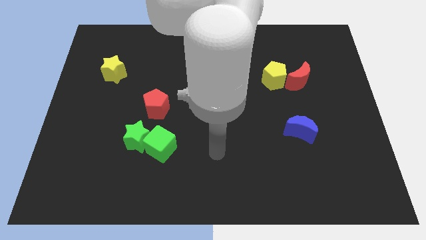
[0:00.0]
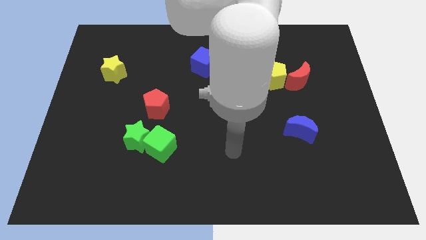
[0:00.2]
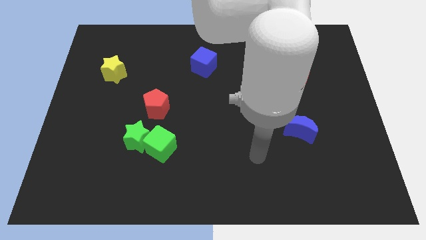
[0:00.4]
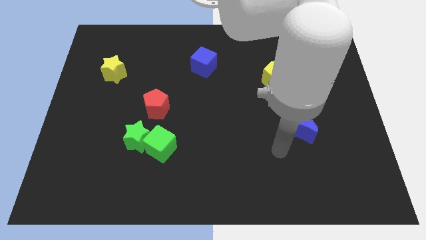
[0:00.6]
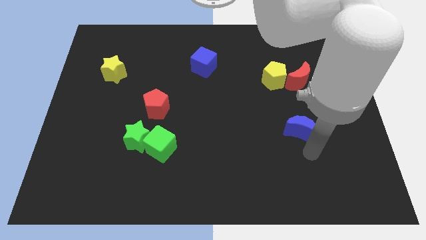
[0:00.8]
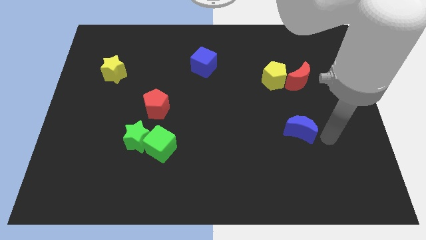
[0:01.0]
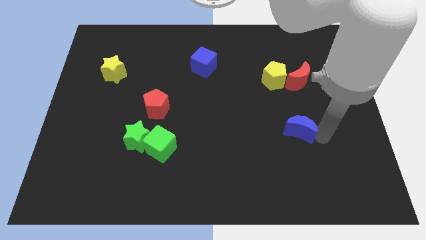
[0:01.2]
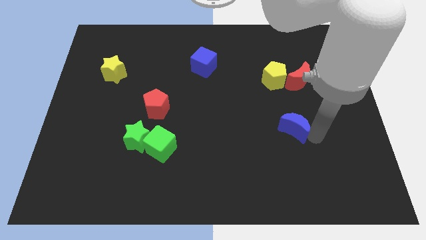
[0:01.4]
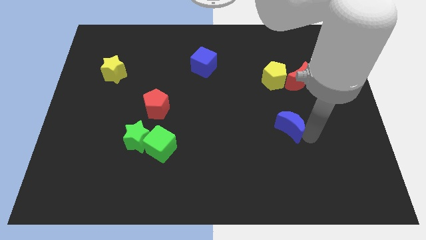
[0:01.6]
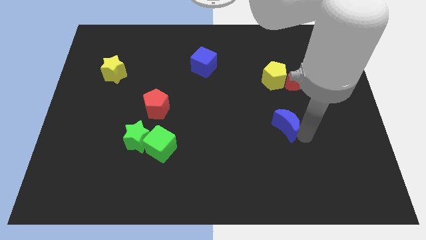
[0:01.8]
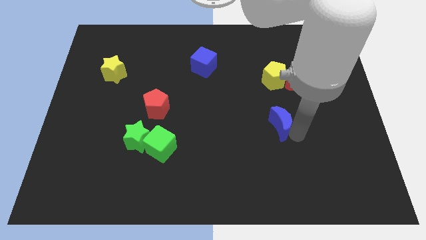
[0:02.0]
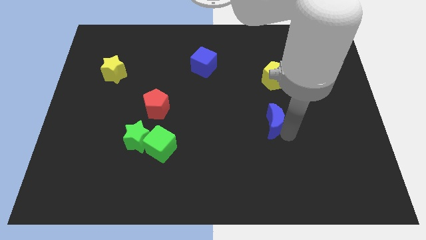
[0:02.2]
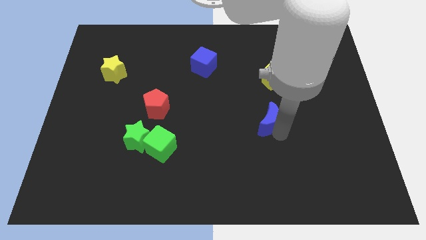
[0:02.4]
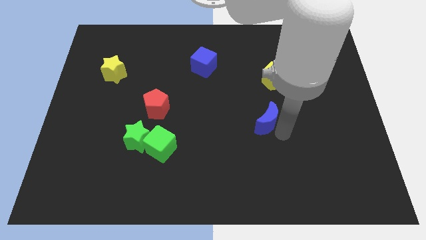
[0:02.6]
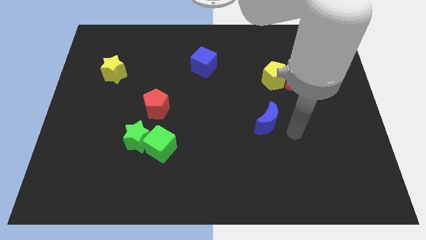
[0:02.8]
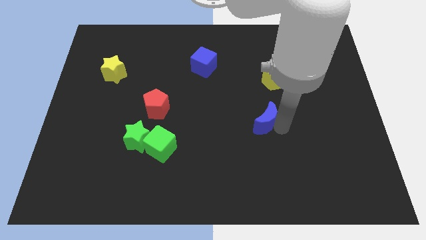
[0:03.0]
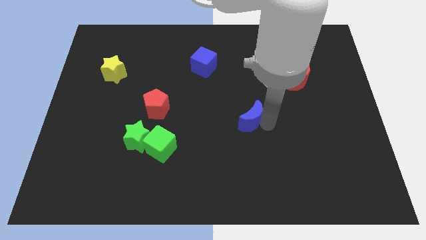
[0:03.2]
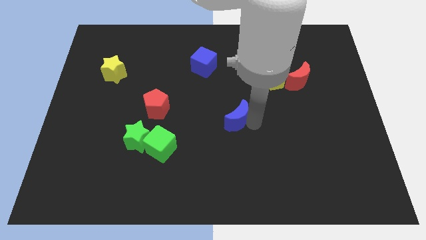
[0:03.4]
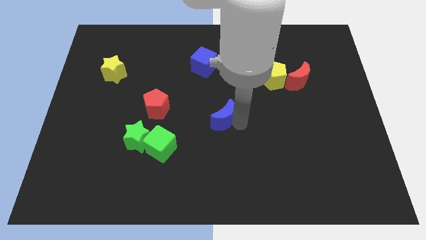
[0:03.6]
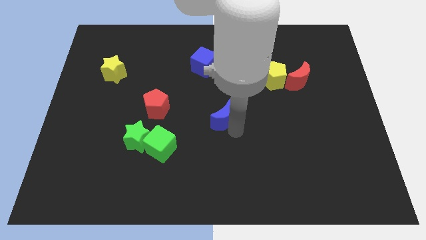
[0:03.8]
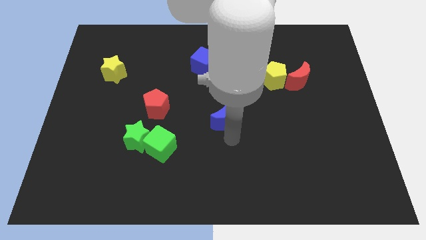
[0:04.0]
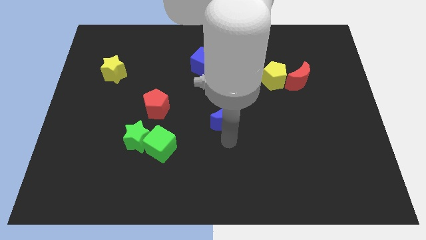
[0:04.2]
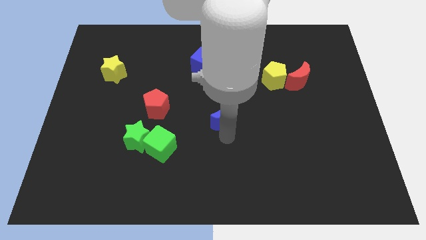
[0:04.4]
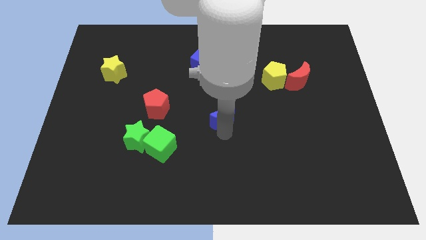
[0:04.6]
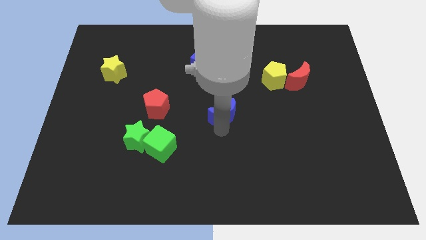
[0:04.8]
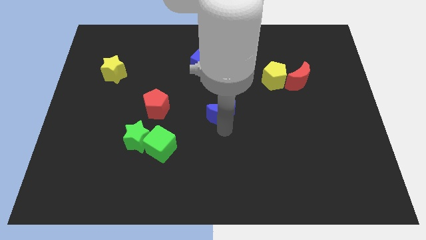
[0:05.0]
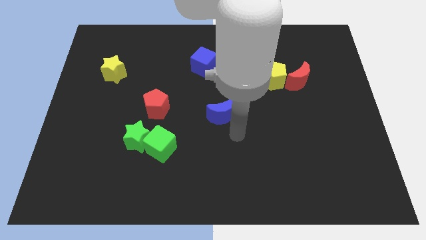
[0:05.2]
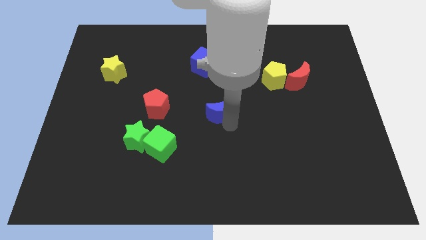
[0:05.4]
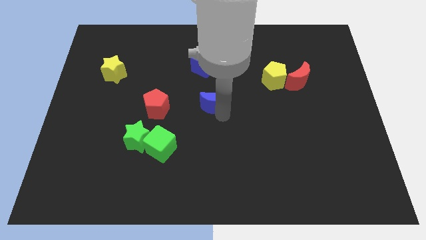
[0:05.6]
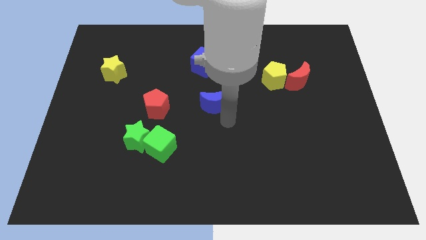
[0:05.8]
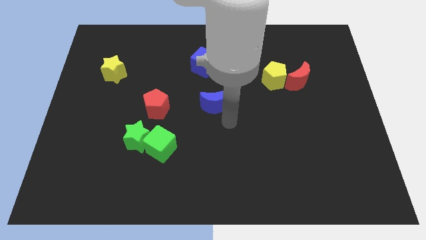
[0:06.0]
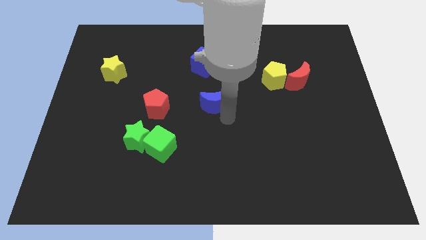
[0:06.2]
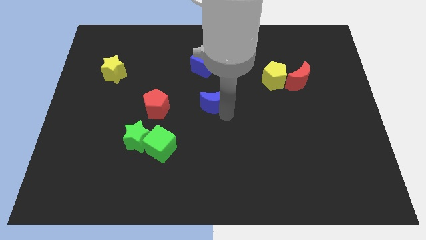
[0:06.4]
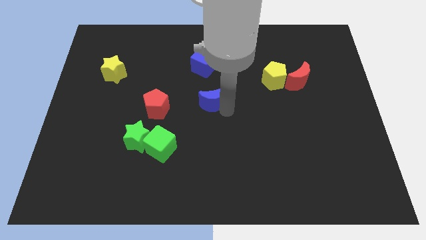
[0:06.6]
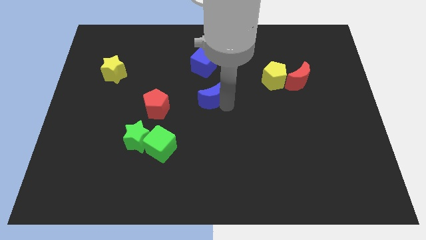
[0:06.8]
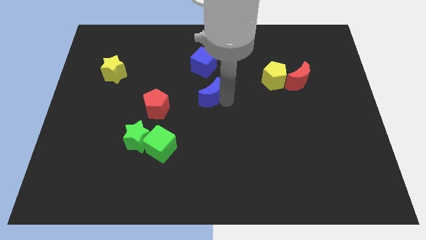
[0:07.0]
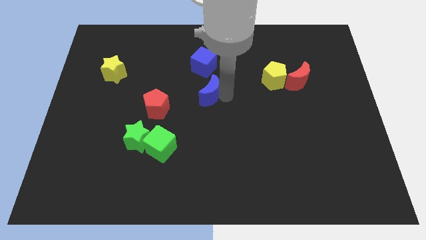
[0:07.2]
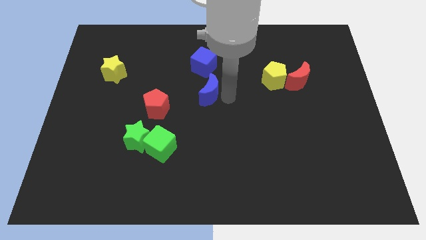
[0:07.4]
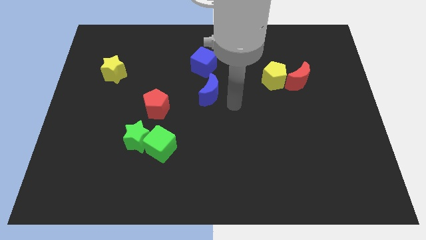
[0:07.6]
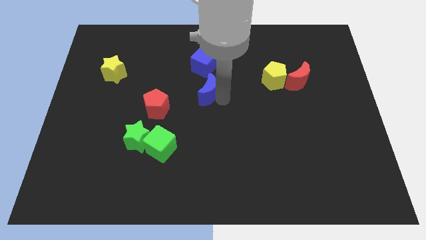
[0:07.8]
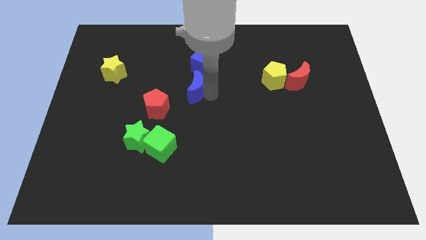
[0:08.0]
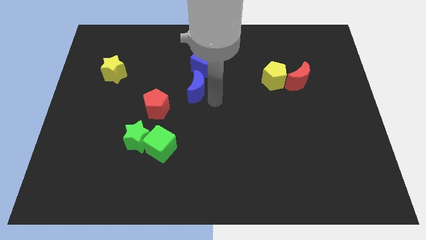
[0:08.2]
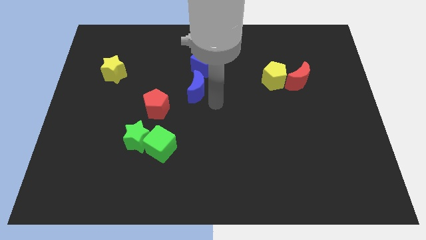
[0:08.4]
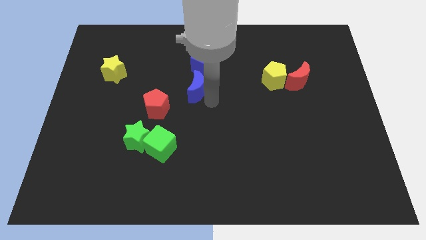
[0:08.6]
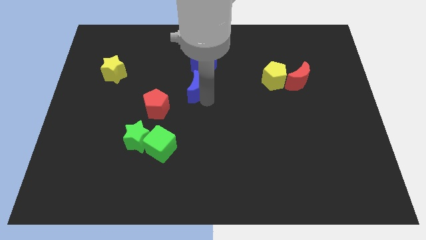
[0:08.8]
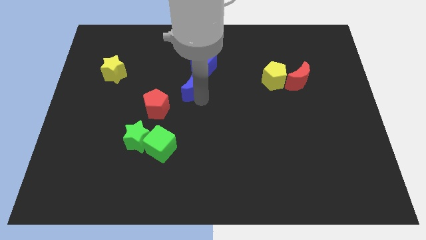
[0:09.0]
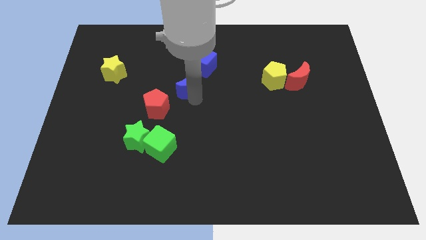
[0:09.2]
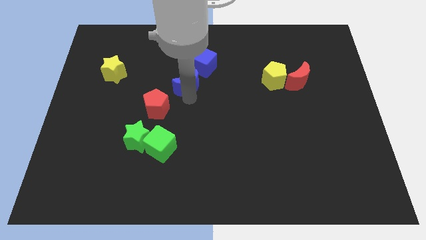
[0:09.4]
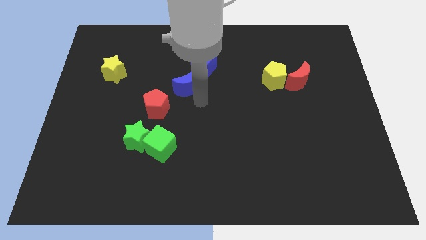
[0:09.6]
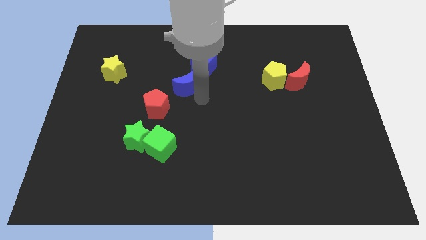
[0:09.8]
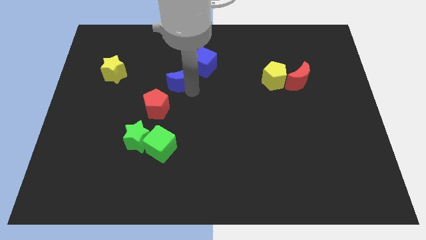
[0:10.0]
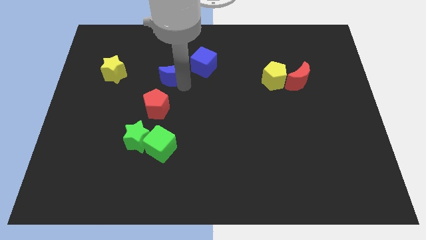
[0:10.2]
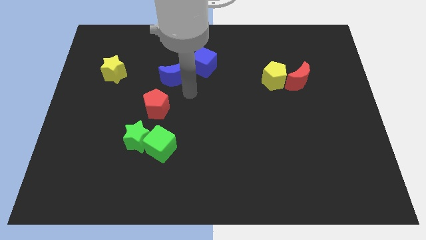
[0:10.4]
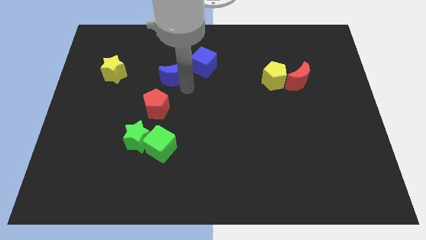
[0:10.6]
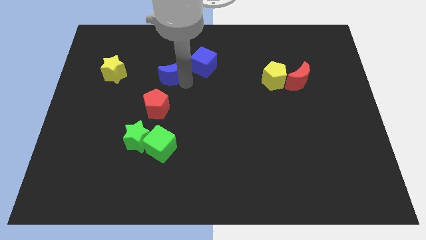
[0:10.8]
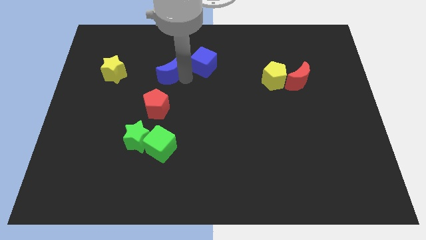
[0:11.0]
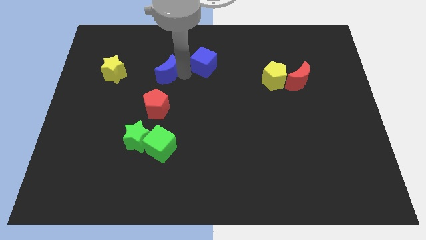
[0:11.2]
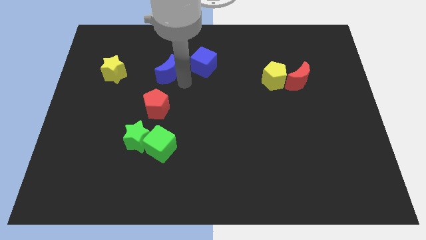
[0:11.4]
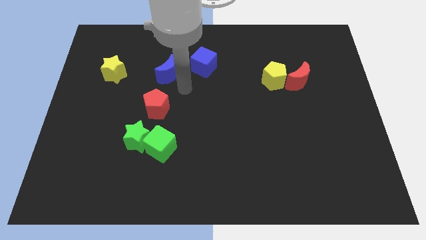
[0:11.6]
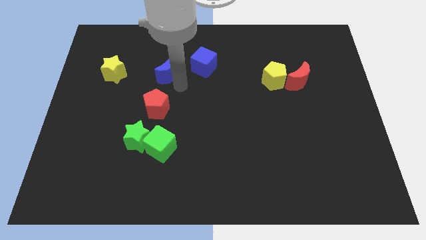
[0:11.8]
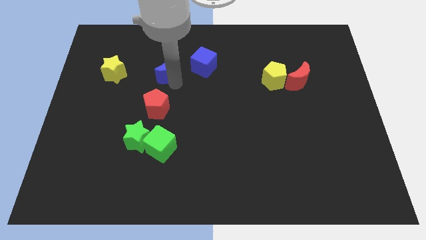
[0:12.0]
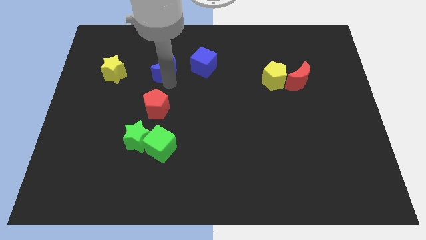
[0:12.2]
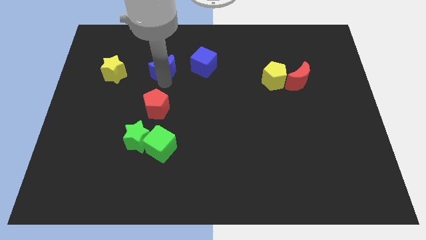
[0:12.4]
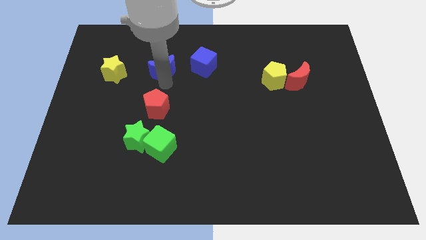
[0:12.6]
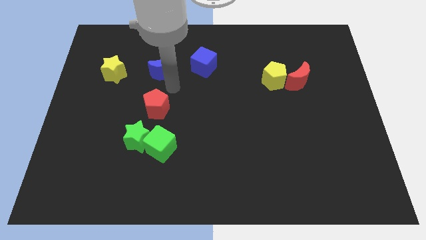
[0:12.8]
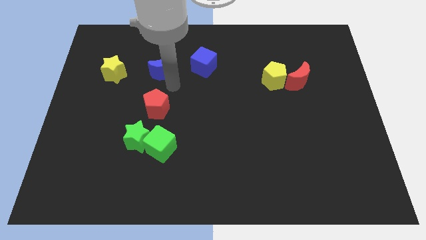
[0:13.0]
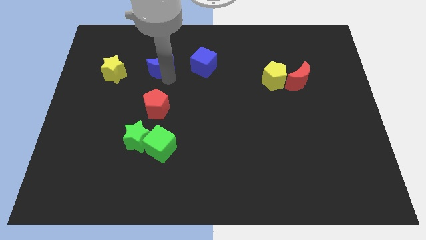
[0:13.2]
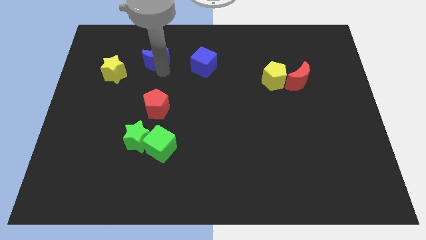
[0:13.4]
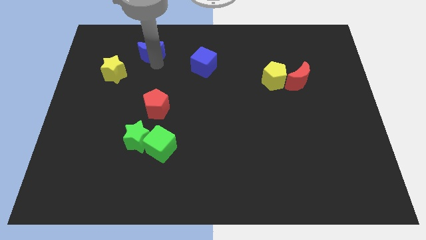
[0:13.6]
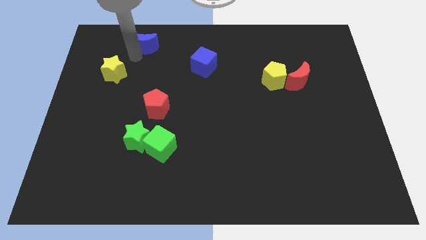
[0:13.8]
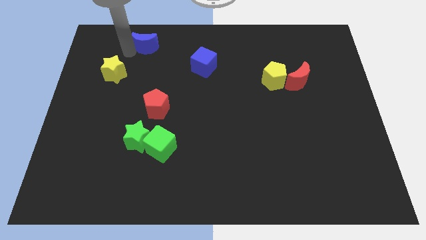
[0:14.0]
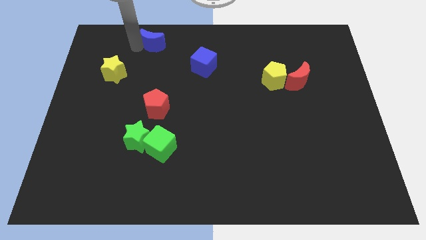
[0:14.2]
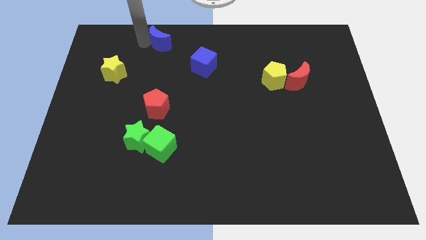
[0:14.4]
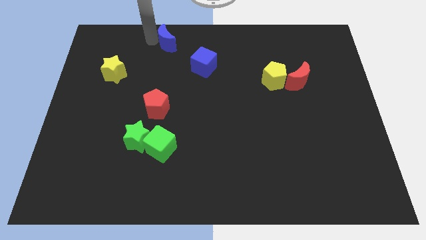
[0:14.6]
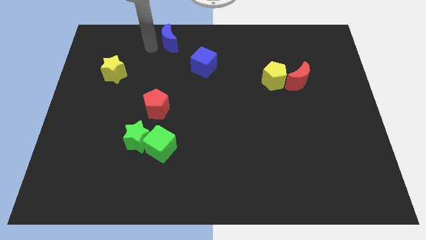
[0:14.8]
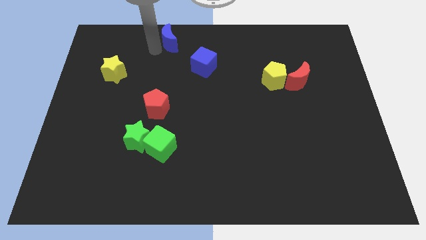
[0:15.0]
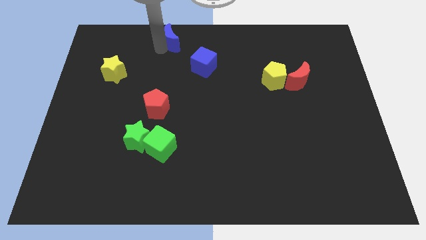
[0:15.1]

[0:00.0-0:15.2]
put the blue moon to the towards your base
